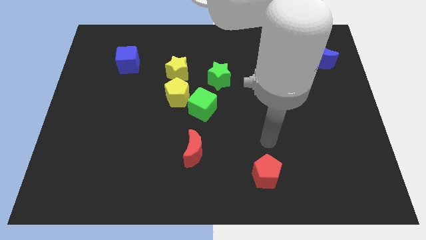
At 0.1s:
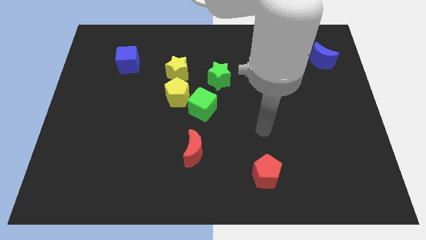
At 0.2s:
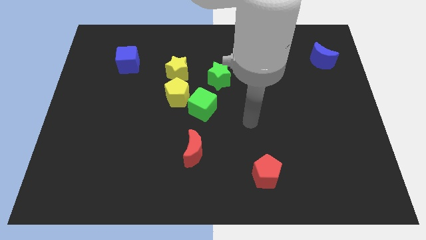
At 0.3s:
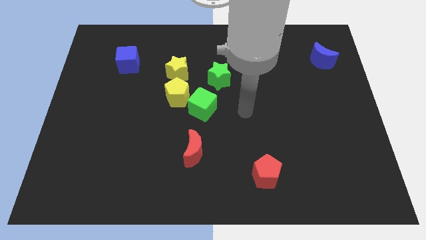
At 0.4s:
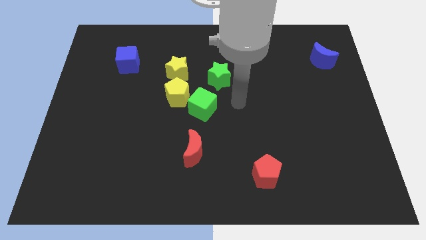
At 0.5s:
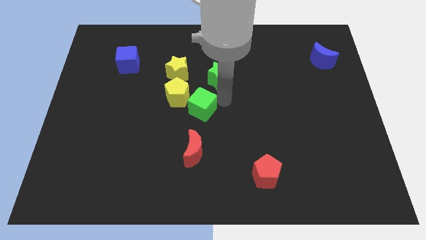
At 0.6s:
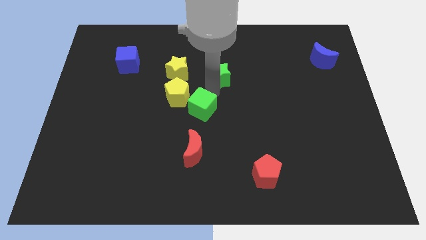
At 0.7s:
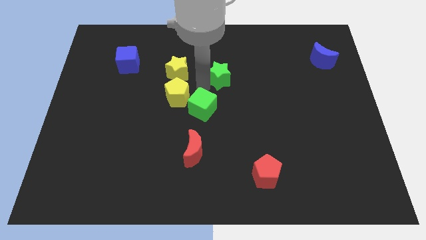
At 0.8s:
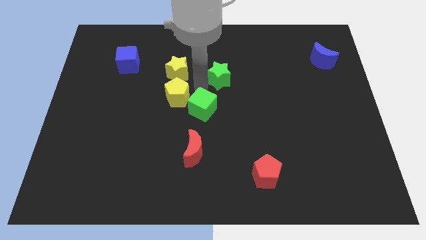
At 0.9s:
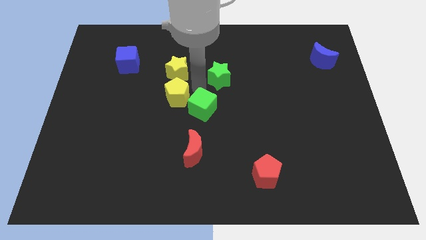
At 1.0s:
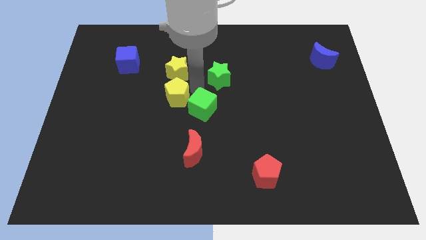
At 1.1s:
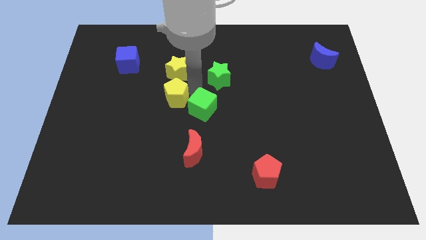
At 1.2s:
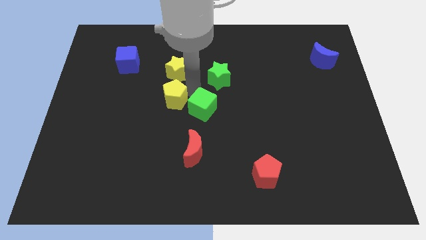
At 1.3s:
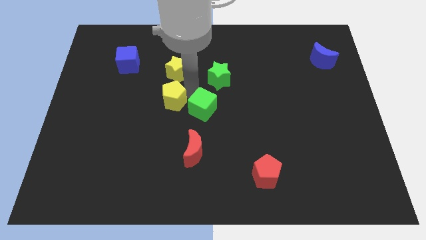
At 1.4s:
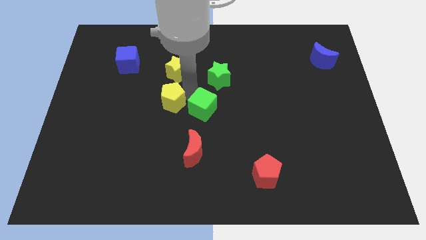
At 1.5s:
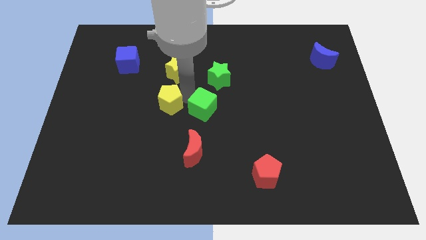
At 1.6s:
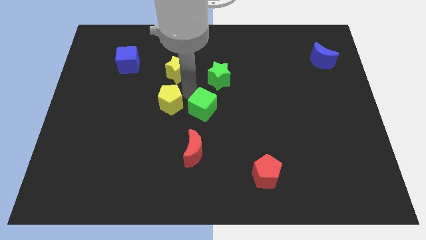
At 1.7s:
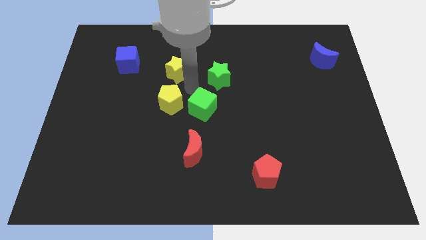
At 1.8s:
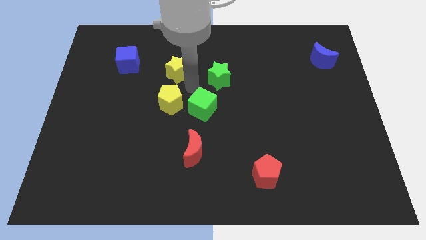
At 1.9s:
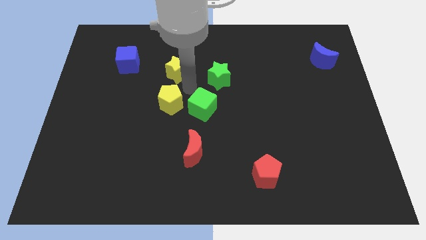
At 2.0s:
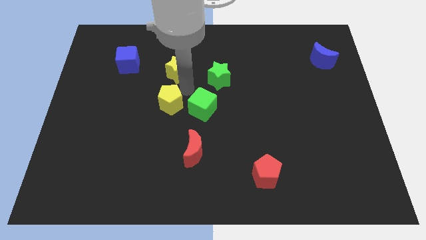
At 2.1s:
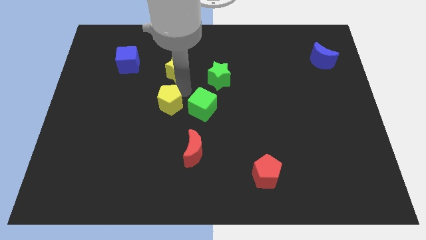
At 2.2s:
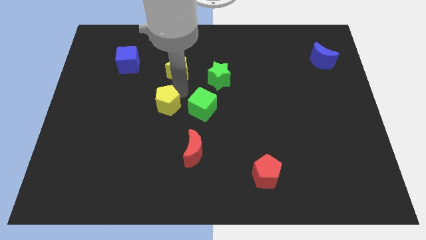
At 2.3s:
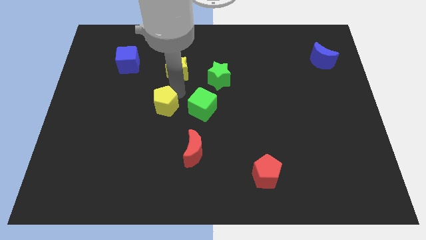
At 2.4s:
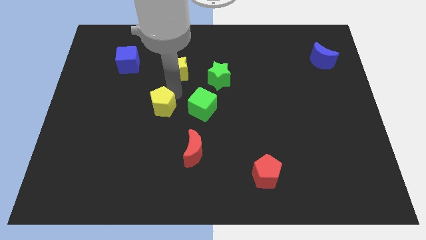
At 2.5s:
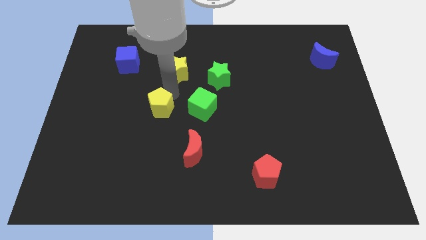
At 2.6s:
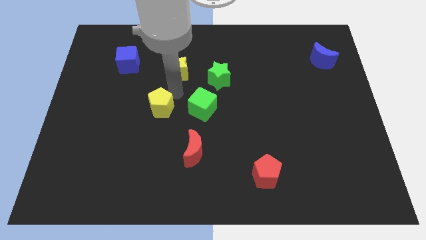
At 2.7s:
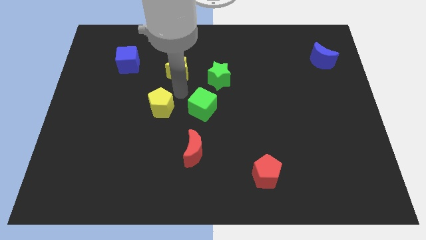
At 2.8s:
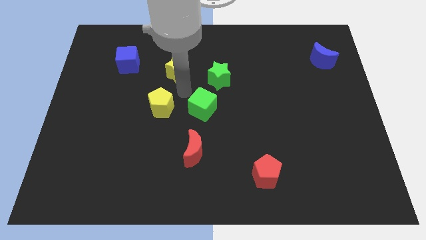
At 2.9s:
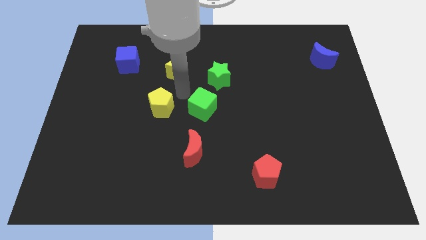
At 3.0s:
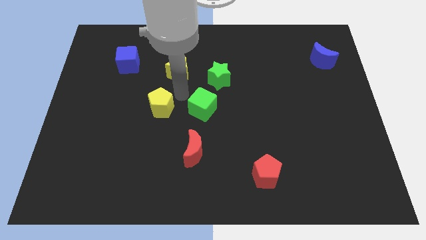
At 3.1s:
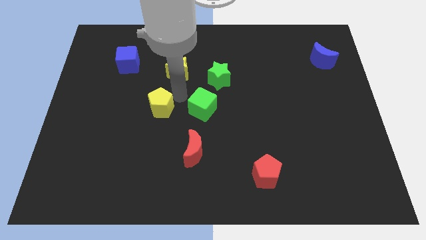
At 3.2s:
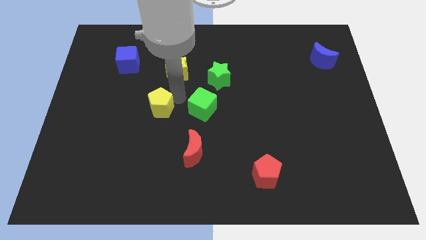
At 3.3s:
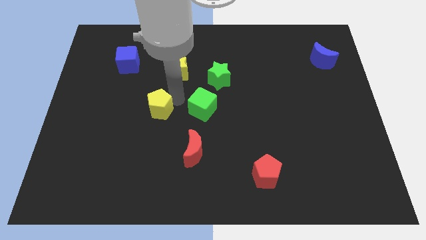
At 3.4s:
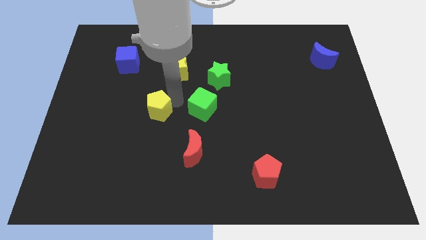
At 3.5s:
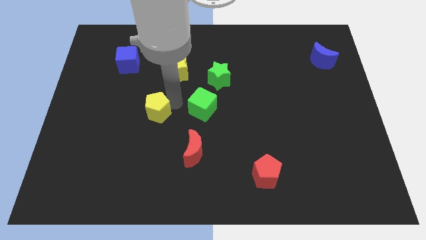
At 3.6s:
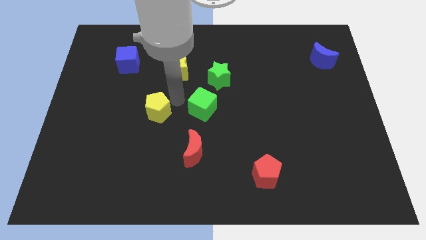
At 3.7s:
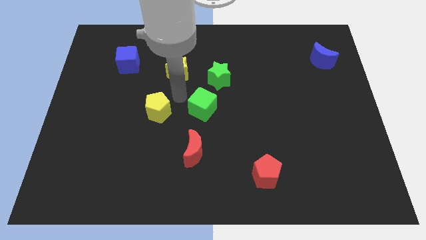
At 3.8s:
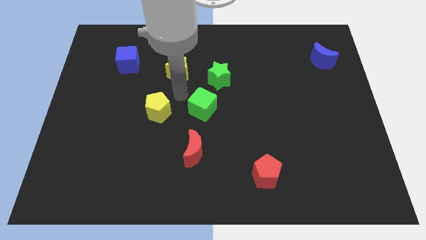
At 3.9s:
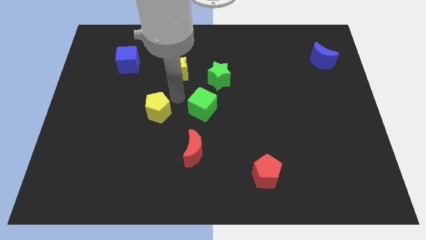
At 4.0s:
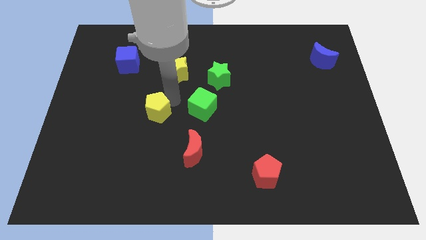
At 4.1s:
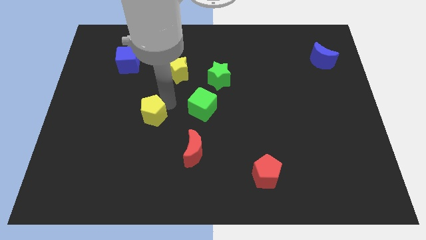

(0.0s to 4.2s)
pull the yellow pentagon apart from the green cube and yellow star

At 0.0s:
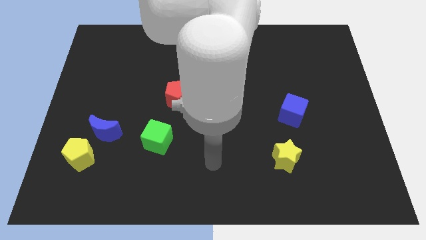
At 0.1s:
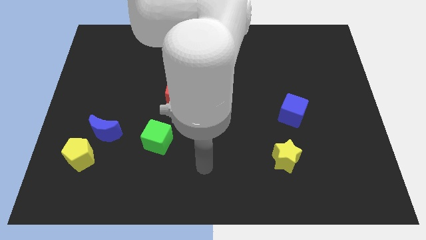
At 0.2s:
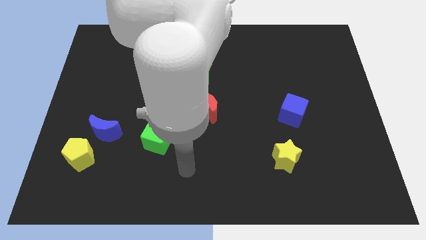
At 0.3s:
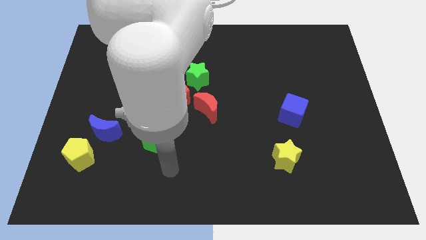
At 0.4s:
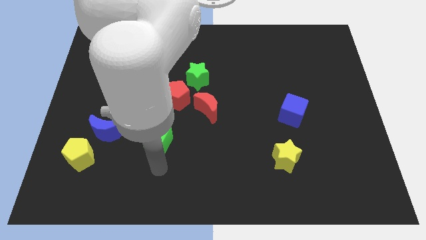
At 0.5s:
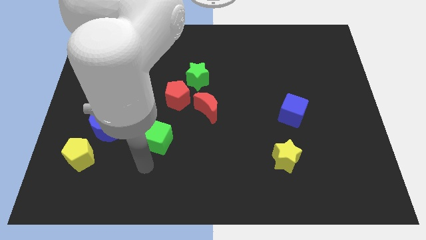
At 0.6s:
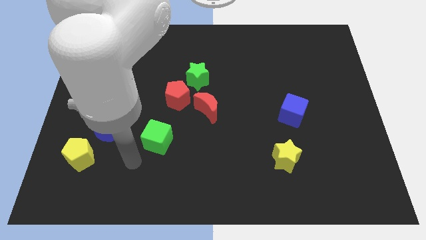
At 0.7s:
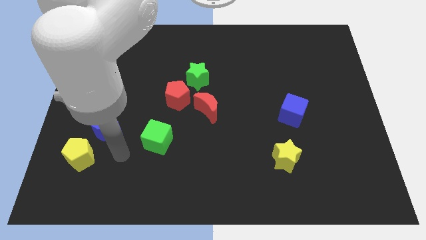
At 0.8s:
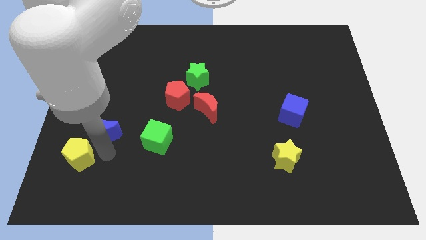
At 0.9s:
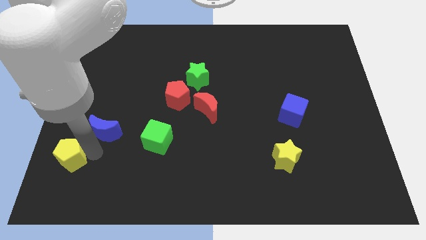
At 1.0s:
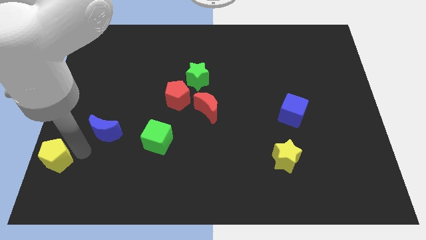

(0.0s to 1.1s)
pull the blue moon apart from the yellow pentagon

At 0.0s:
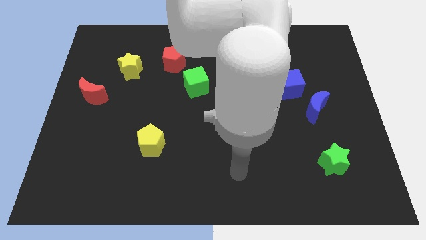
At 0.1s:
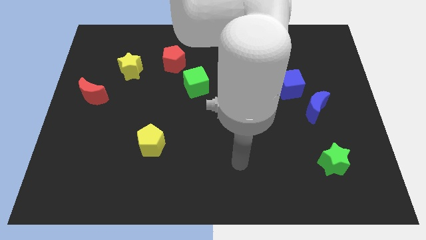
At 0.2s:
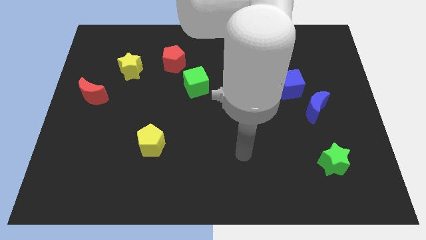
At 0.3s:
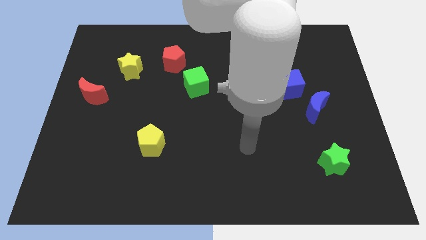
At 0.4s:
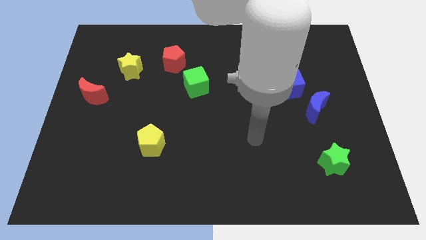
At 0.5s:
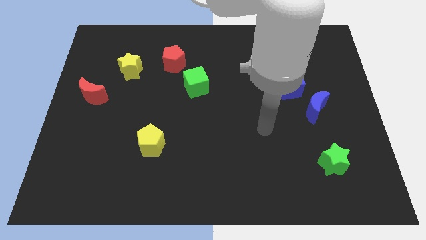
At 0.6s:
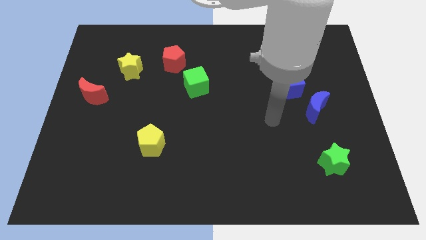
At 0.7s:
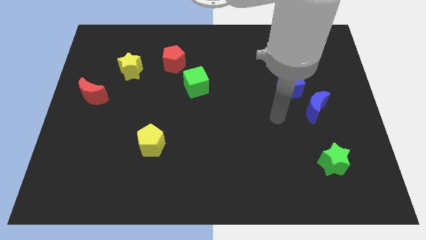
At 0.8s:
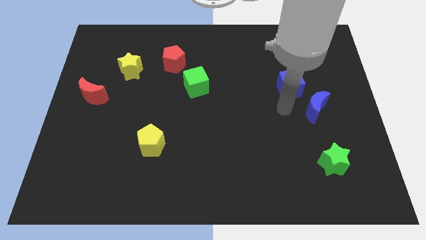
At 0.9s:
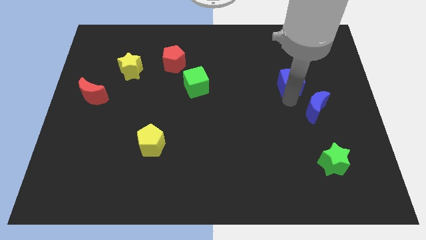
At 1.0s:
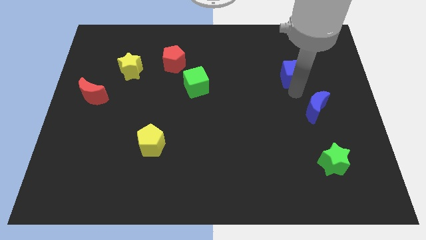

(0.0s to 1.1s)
separate the blue moon from the blue cube

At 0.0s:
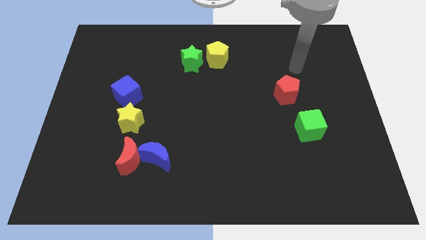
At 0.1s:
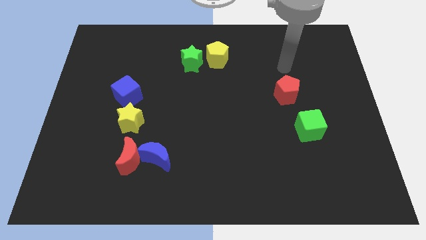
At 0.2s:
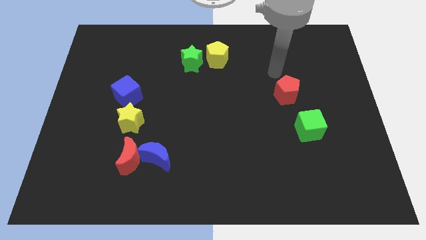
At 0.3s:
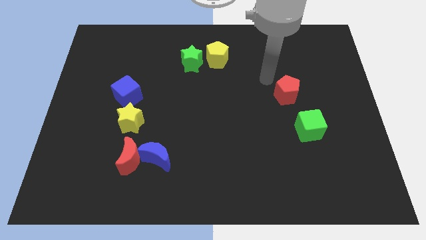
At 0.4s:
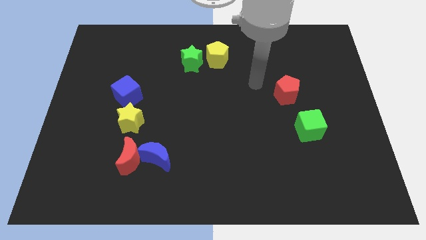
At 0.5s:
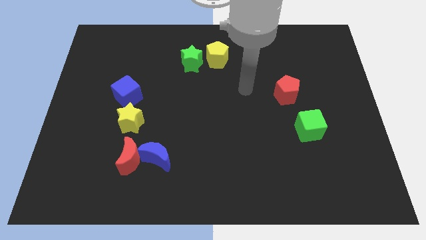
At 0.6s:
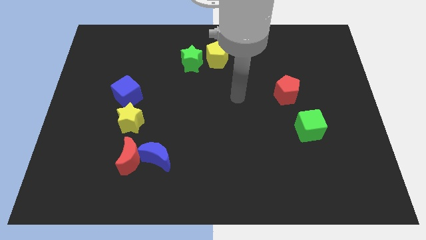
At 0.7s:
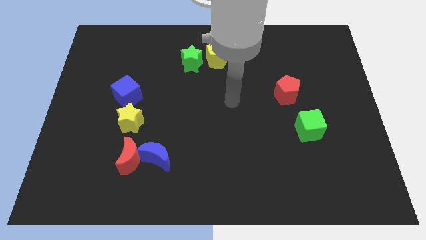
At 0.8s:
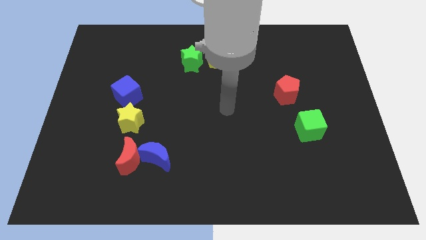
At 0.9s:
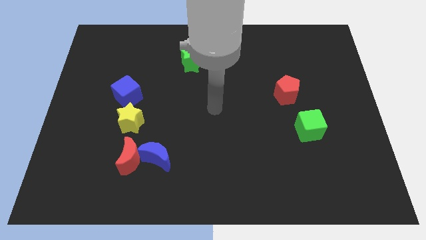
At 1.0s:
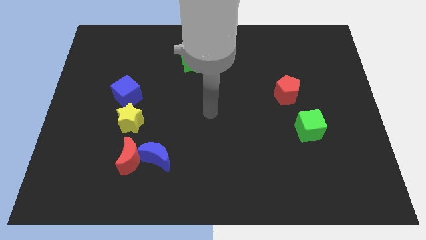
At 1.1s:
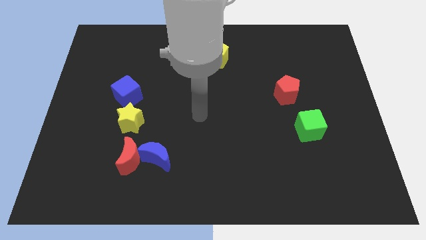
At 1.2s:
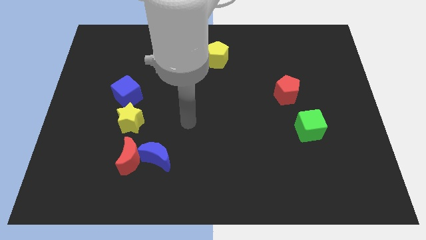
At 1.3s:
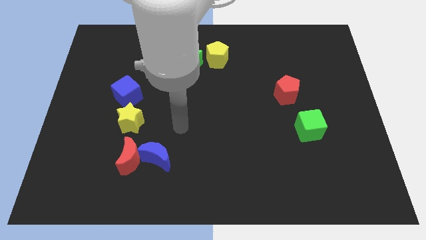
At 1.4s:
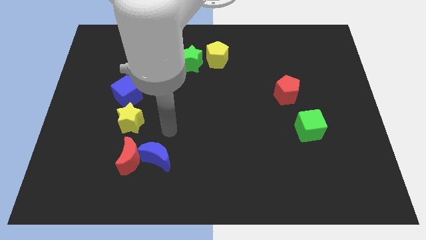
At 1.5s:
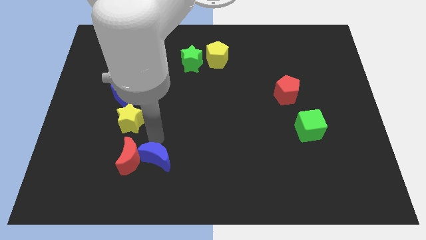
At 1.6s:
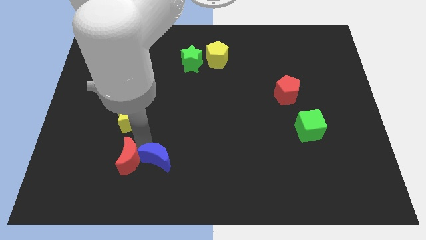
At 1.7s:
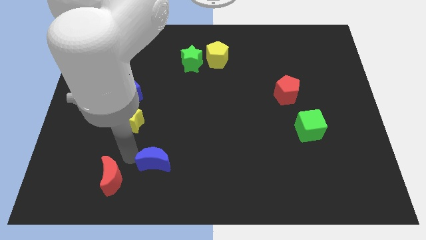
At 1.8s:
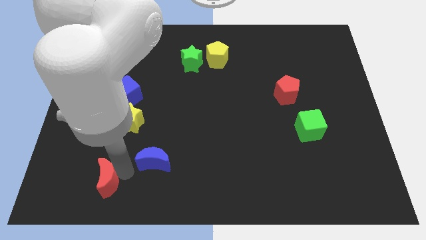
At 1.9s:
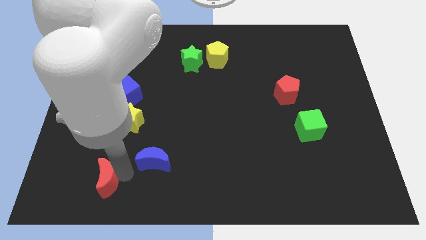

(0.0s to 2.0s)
separate the blue moon from the red moon

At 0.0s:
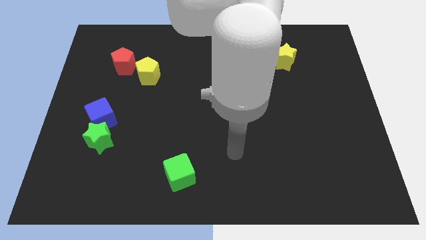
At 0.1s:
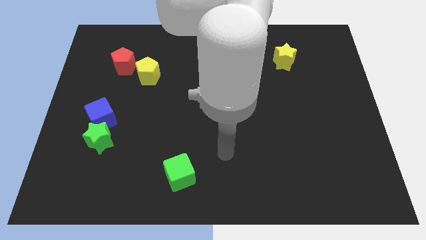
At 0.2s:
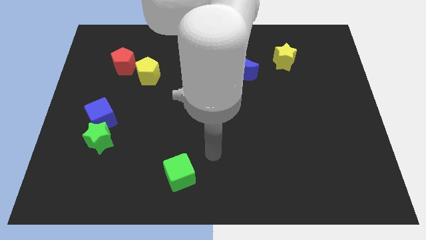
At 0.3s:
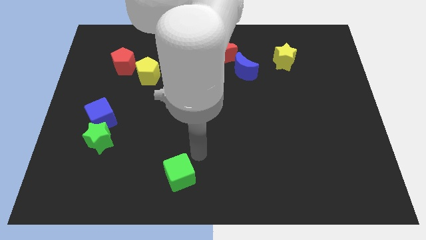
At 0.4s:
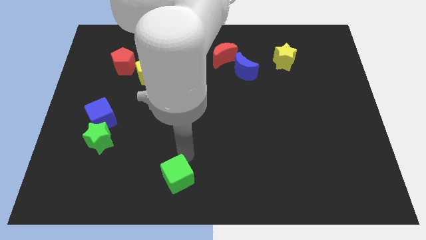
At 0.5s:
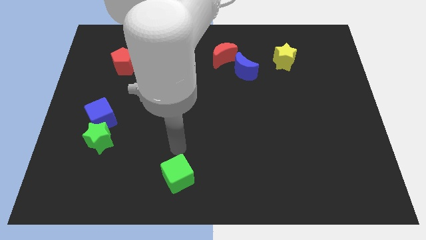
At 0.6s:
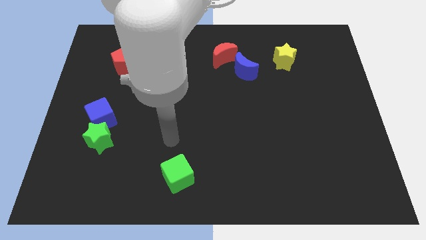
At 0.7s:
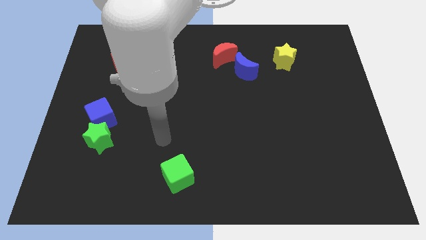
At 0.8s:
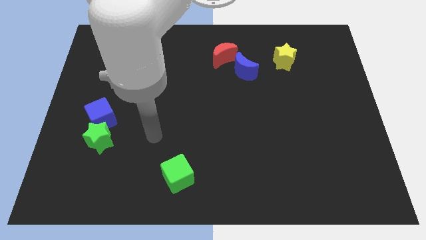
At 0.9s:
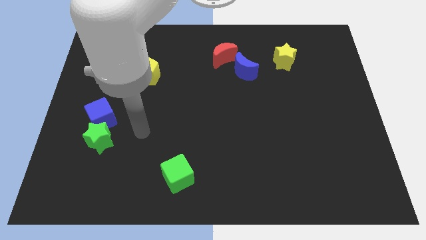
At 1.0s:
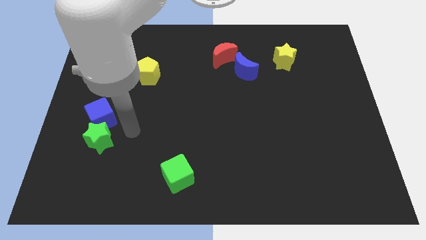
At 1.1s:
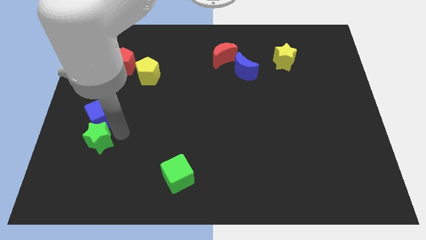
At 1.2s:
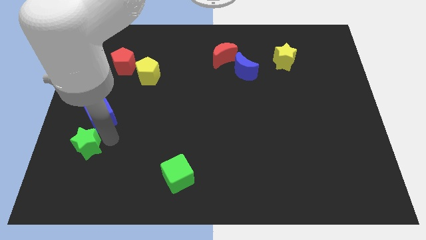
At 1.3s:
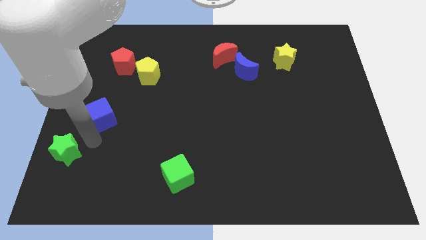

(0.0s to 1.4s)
pull the blue cube apart from the green star
